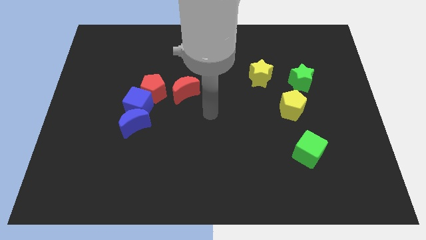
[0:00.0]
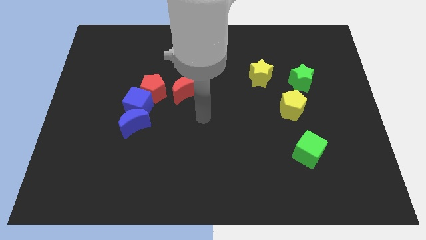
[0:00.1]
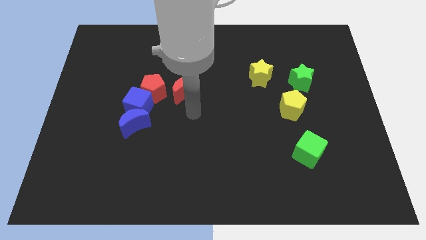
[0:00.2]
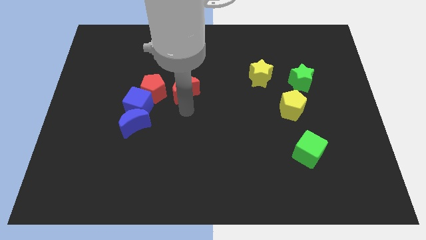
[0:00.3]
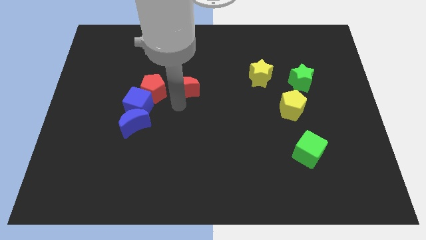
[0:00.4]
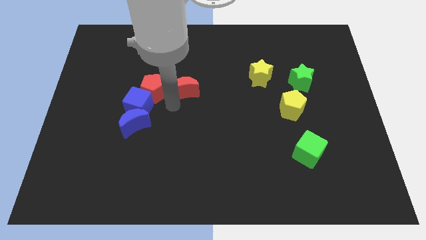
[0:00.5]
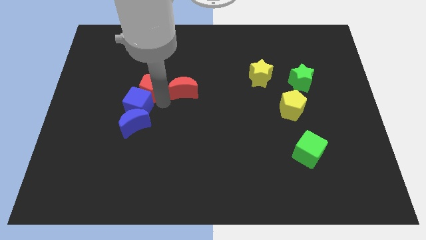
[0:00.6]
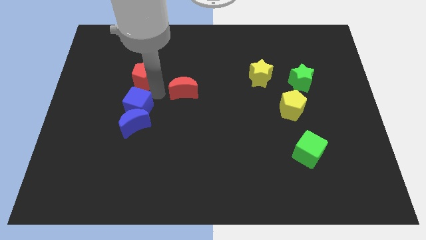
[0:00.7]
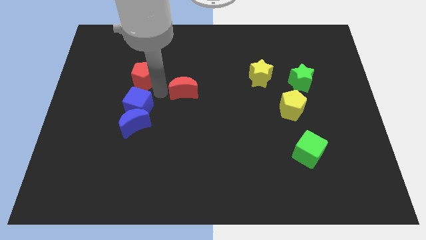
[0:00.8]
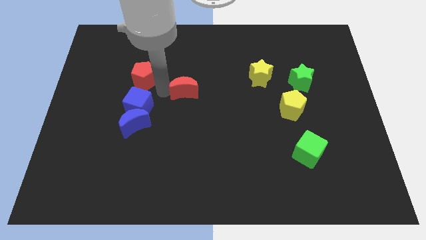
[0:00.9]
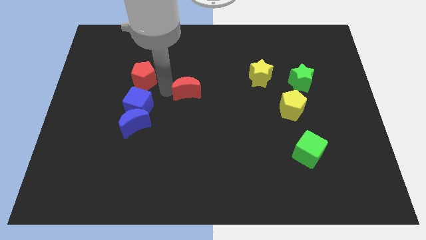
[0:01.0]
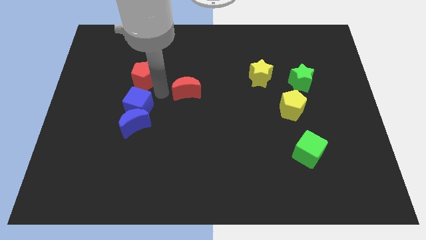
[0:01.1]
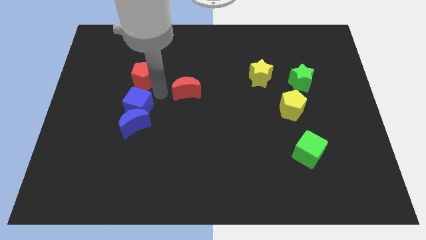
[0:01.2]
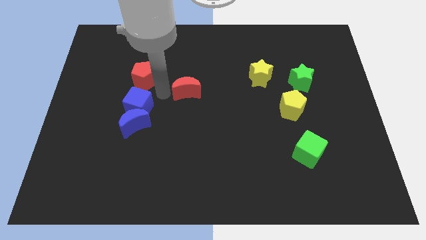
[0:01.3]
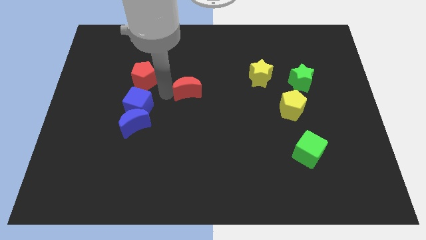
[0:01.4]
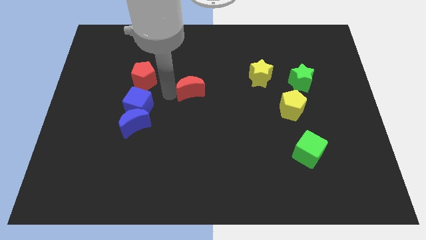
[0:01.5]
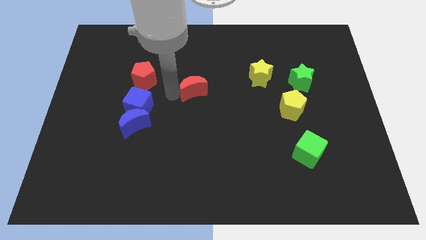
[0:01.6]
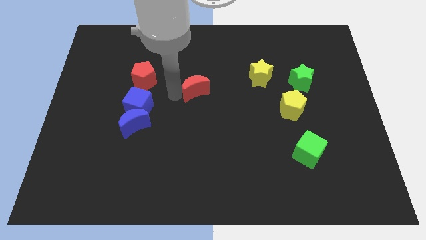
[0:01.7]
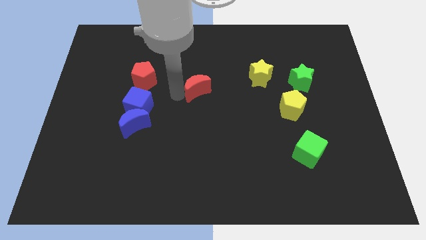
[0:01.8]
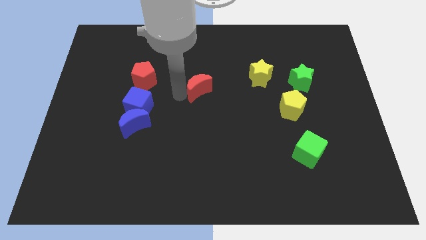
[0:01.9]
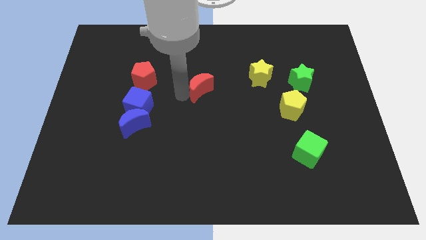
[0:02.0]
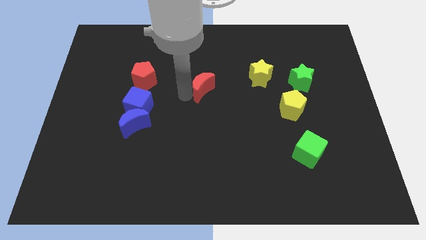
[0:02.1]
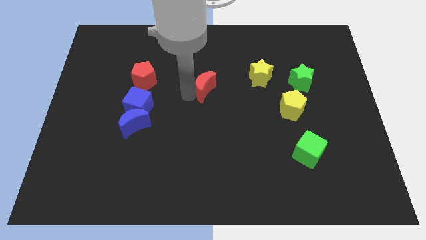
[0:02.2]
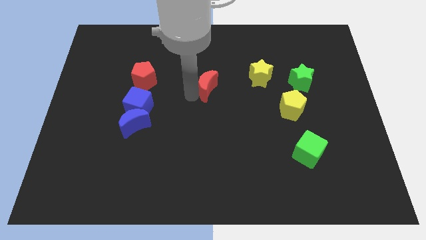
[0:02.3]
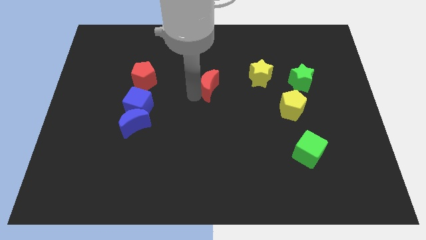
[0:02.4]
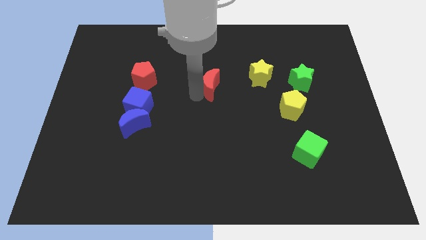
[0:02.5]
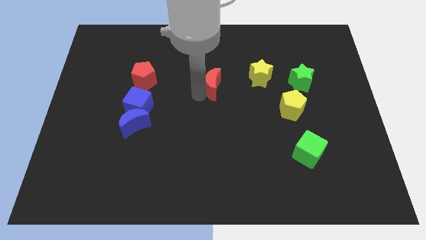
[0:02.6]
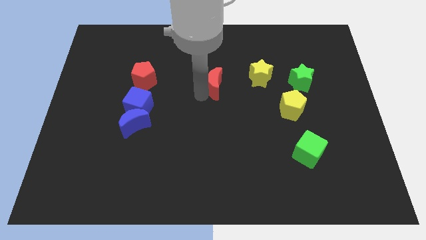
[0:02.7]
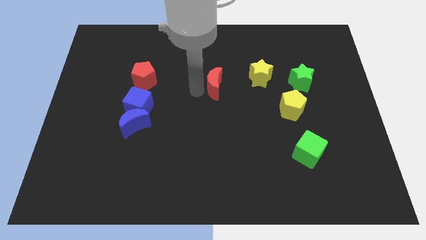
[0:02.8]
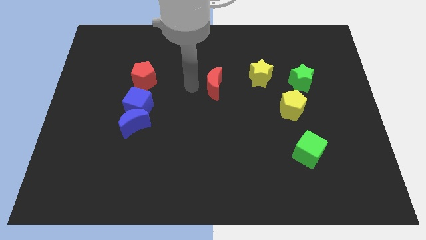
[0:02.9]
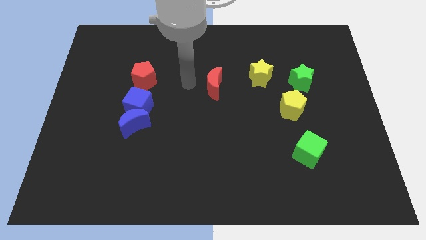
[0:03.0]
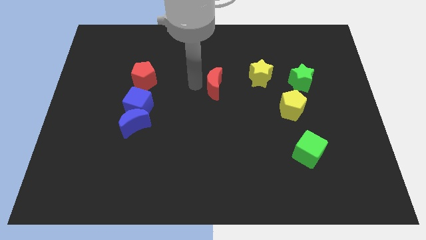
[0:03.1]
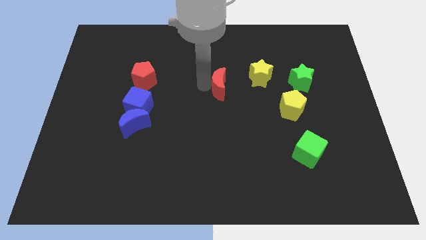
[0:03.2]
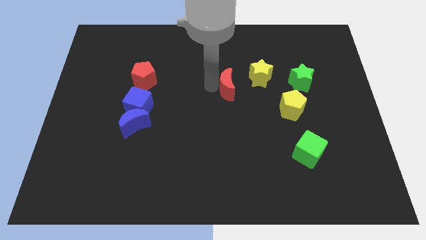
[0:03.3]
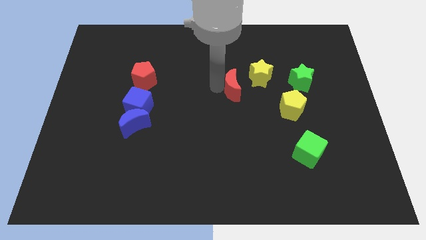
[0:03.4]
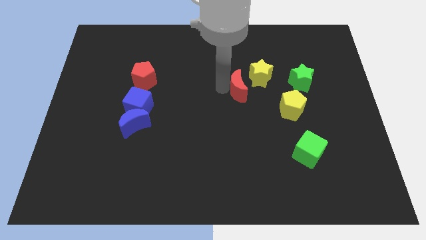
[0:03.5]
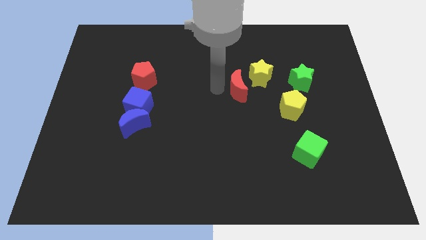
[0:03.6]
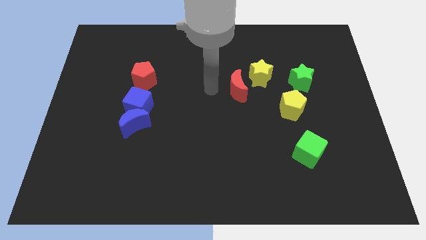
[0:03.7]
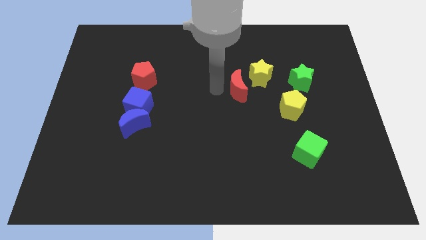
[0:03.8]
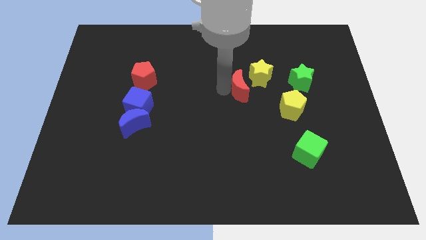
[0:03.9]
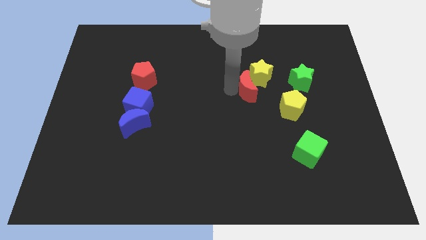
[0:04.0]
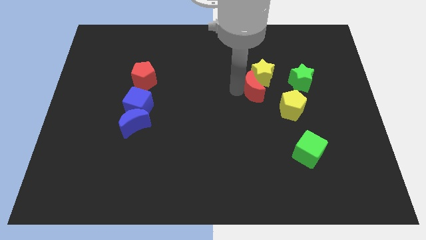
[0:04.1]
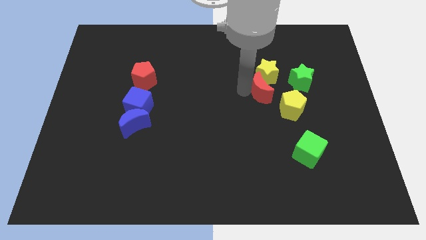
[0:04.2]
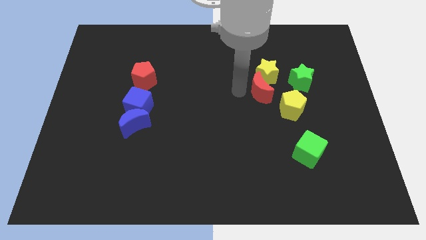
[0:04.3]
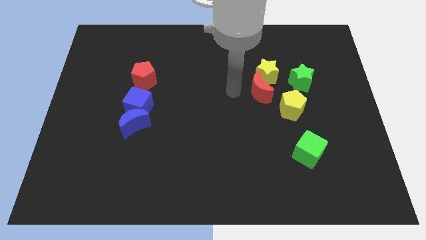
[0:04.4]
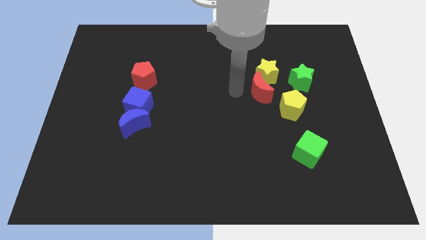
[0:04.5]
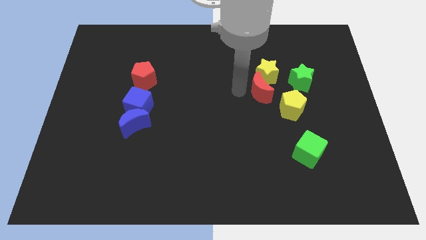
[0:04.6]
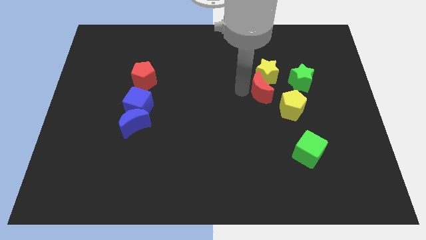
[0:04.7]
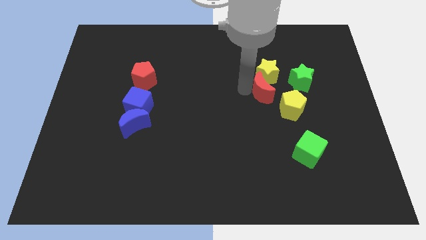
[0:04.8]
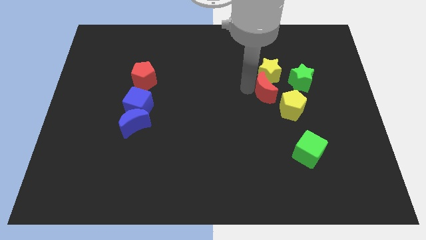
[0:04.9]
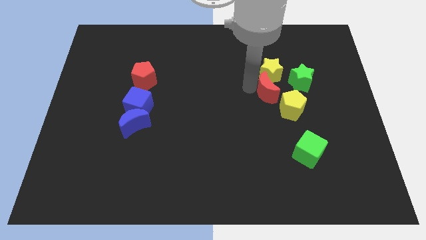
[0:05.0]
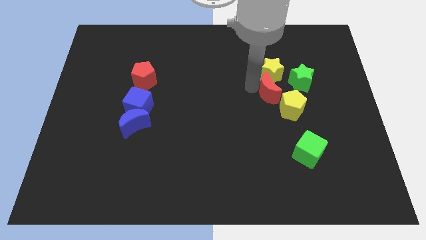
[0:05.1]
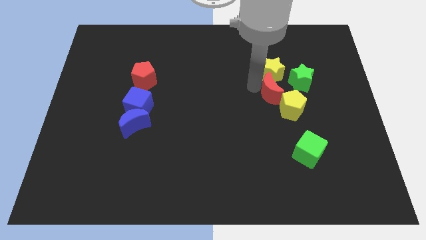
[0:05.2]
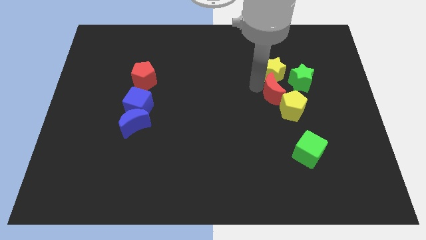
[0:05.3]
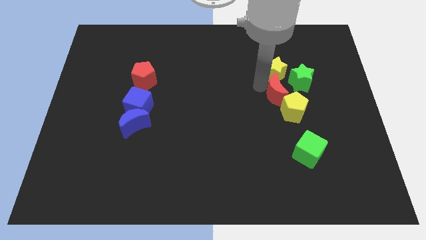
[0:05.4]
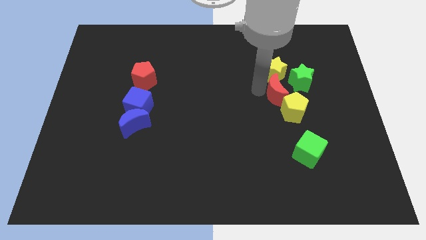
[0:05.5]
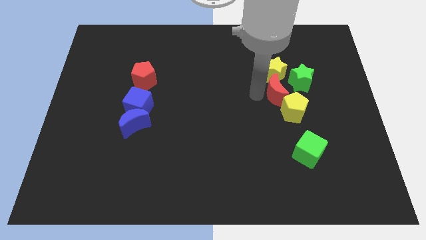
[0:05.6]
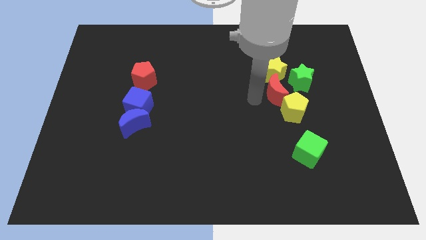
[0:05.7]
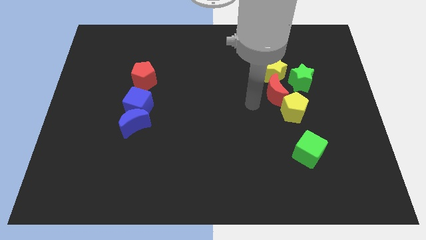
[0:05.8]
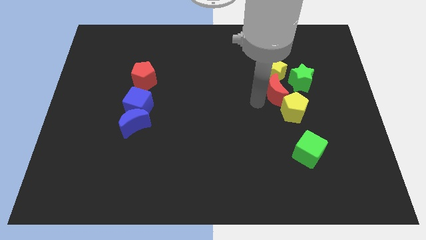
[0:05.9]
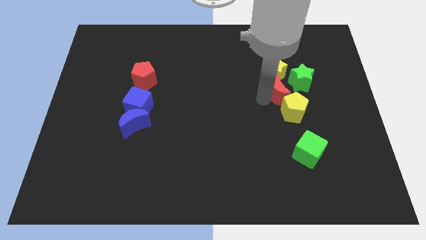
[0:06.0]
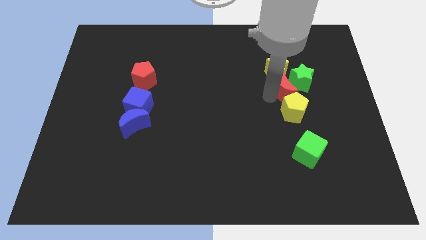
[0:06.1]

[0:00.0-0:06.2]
move the red moon towards the green star
